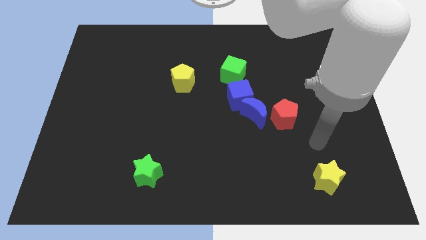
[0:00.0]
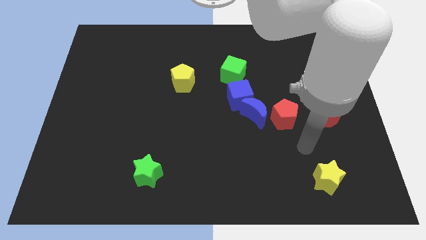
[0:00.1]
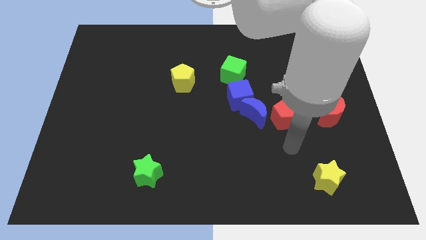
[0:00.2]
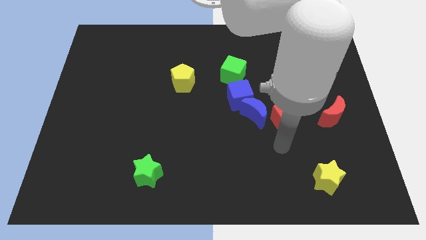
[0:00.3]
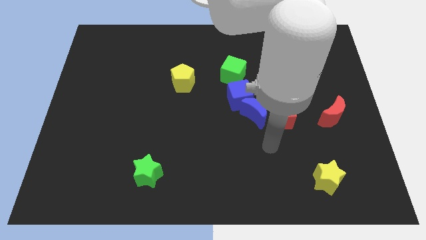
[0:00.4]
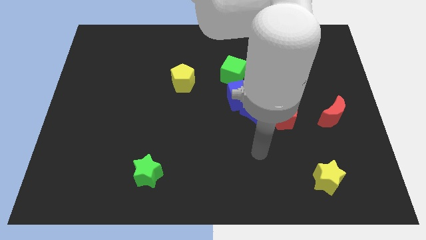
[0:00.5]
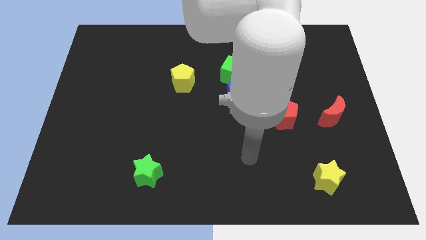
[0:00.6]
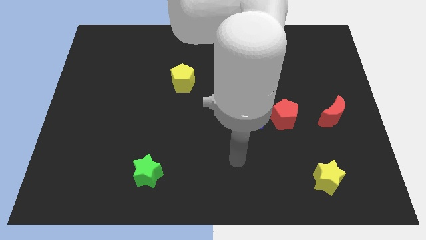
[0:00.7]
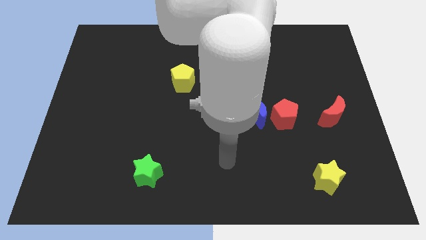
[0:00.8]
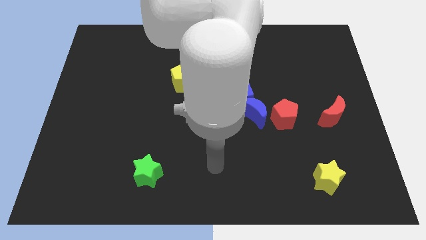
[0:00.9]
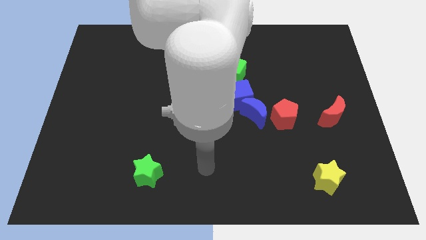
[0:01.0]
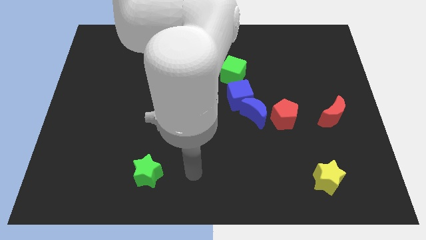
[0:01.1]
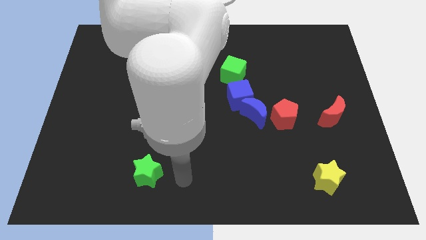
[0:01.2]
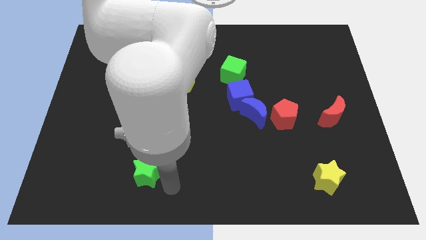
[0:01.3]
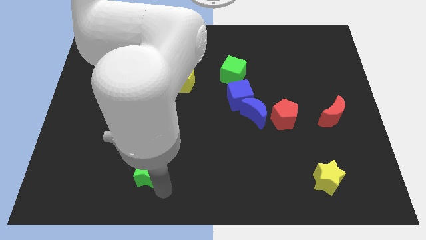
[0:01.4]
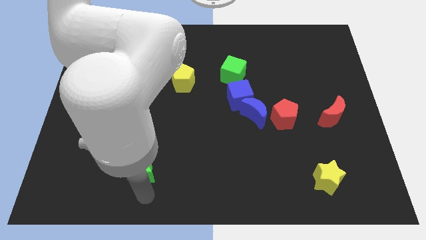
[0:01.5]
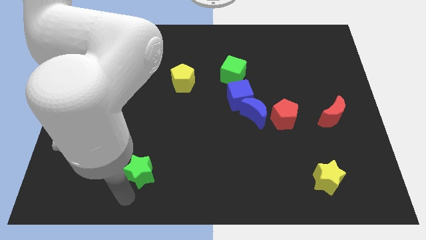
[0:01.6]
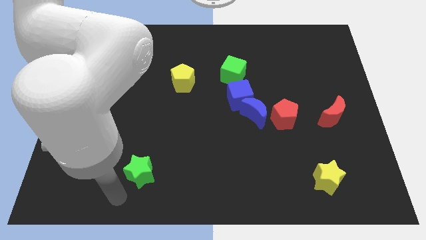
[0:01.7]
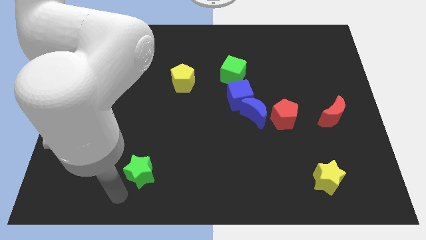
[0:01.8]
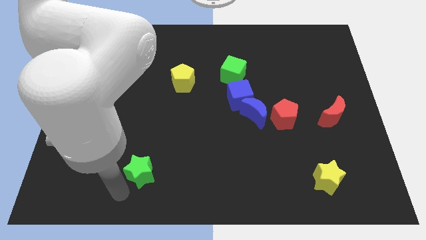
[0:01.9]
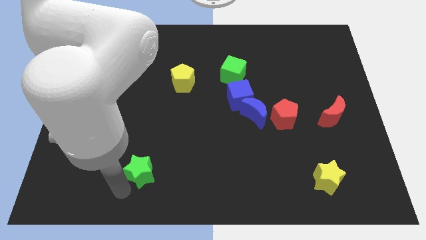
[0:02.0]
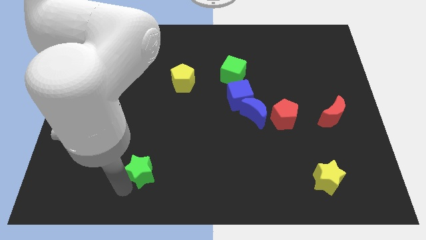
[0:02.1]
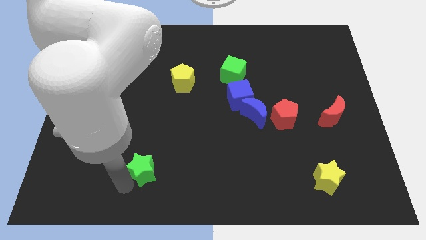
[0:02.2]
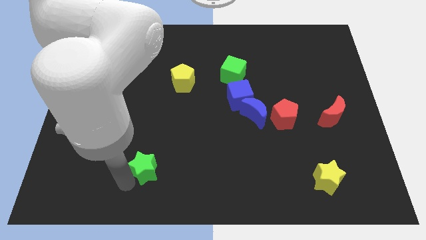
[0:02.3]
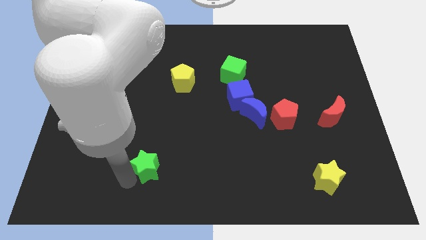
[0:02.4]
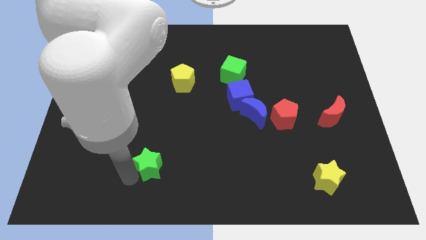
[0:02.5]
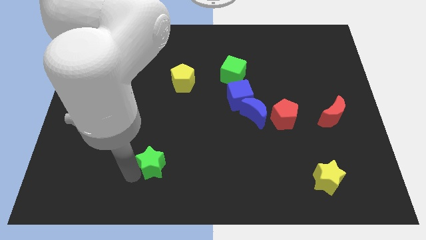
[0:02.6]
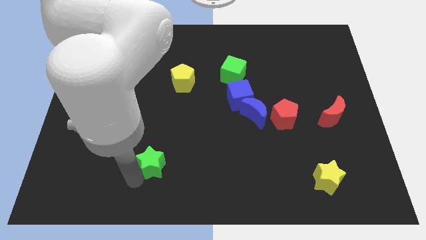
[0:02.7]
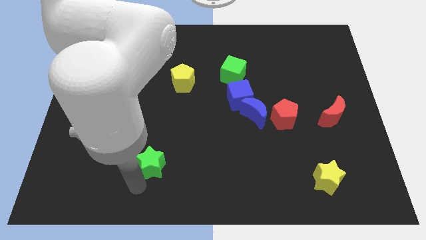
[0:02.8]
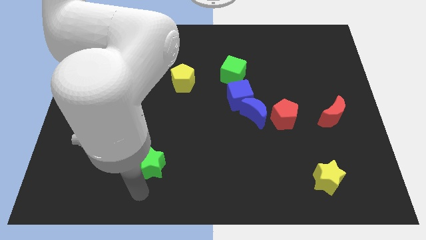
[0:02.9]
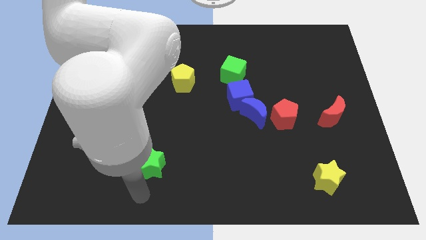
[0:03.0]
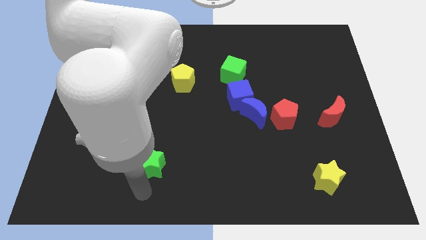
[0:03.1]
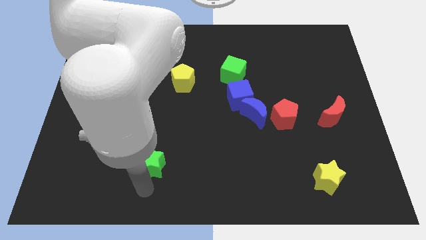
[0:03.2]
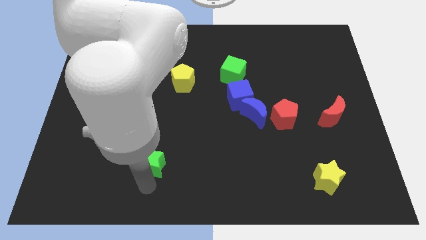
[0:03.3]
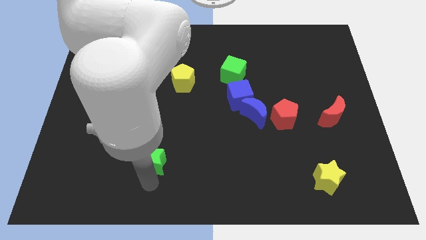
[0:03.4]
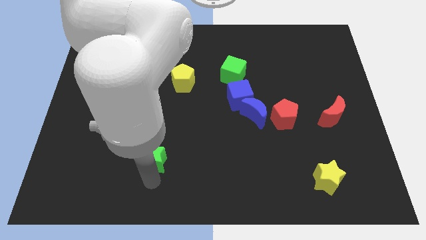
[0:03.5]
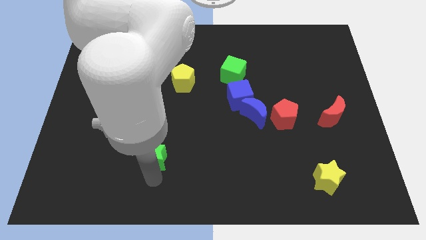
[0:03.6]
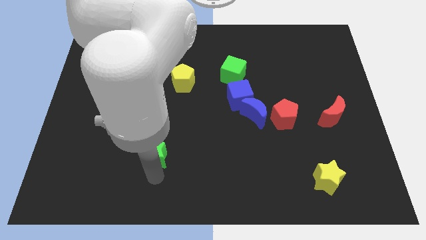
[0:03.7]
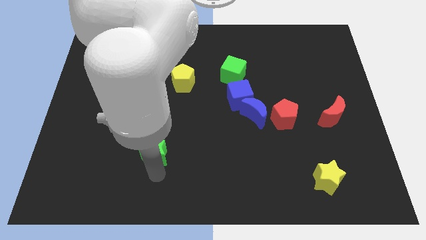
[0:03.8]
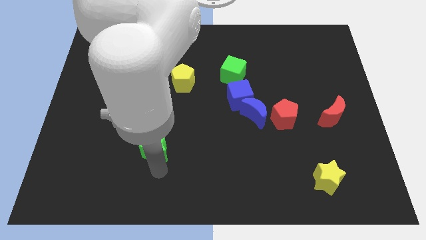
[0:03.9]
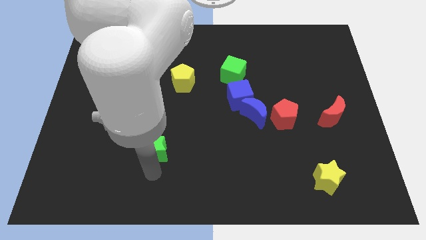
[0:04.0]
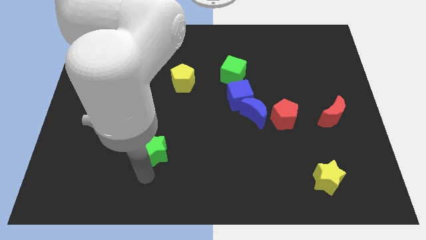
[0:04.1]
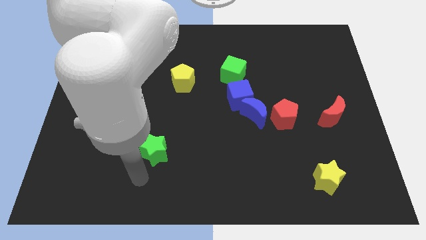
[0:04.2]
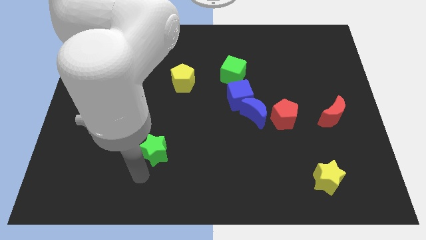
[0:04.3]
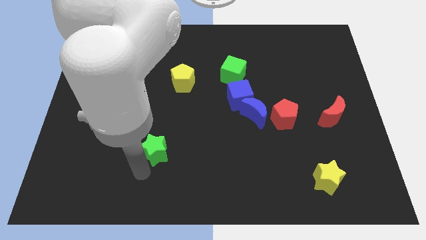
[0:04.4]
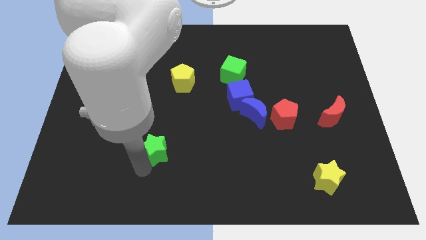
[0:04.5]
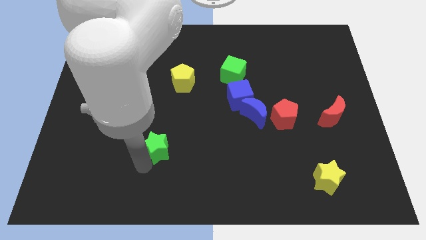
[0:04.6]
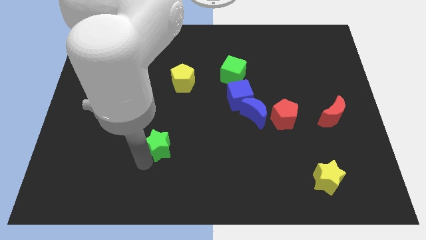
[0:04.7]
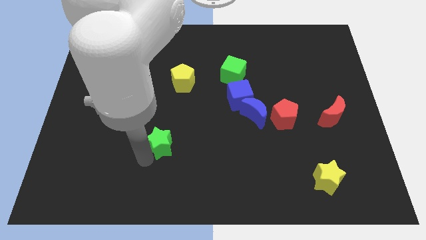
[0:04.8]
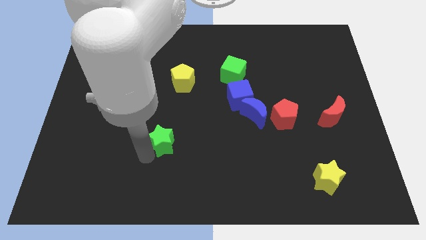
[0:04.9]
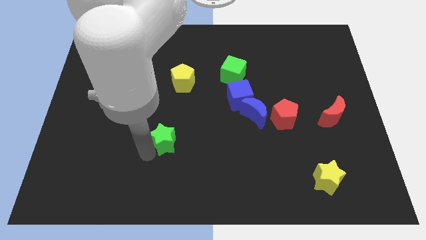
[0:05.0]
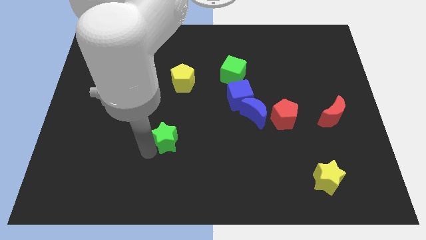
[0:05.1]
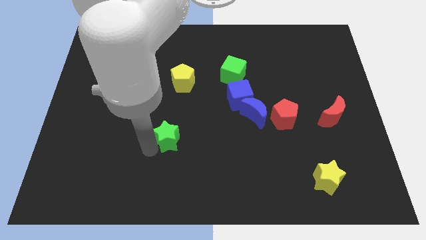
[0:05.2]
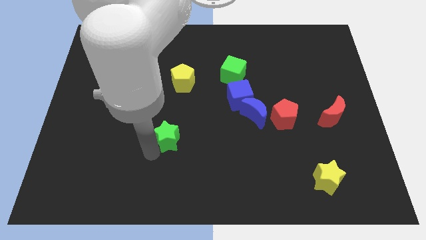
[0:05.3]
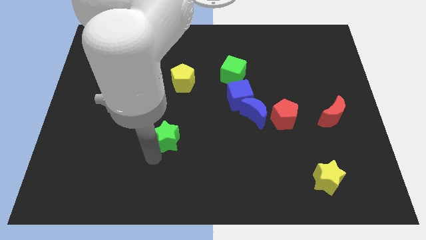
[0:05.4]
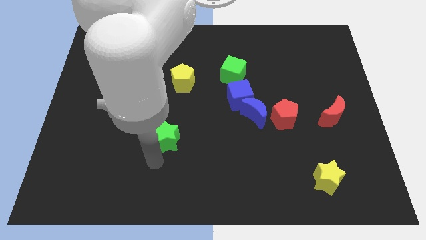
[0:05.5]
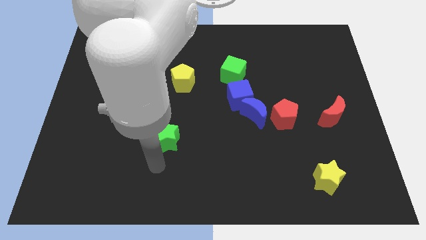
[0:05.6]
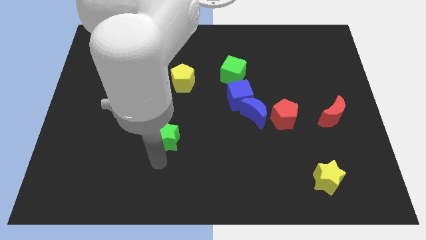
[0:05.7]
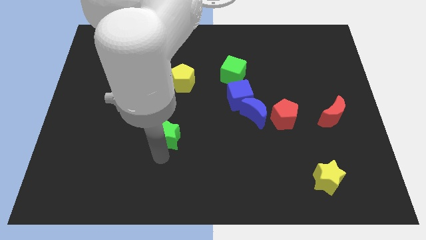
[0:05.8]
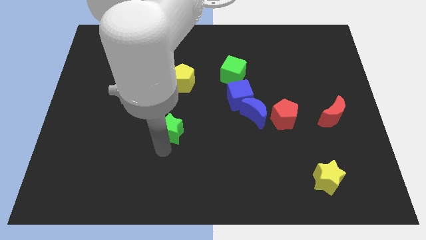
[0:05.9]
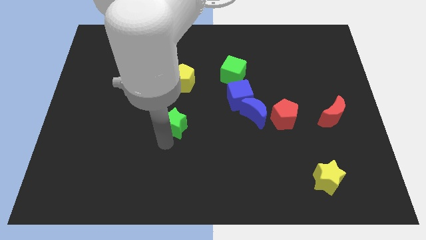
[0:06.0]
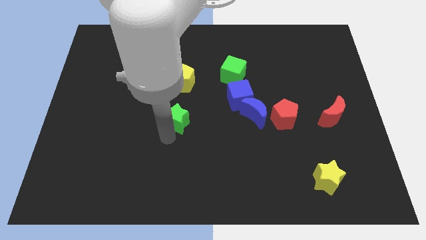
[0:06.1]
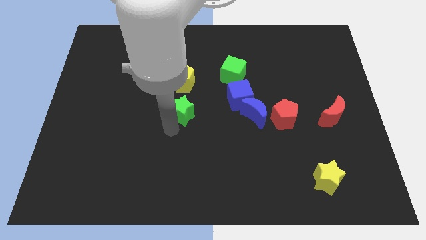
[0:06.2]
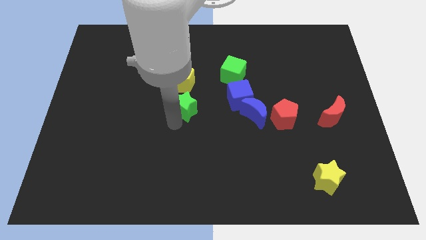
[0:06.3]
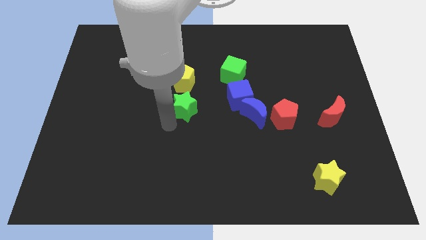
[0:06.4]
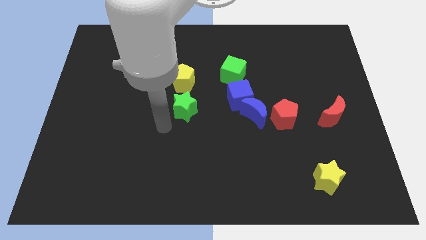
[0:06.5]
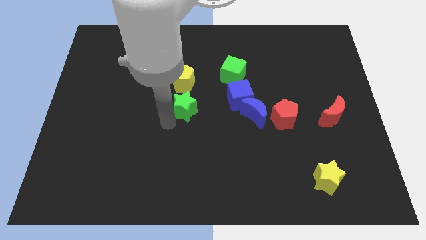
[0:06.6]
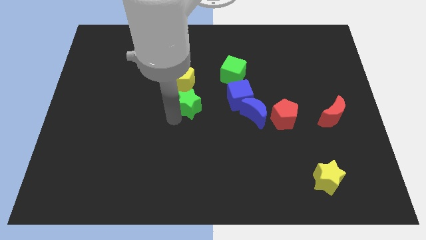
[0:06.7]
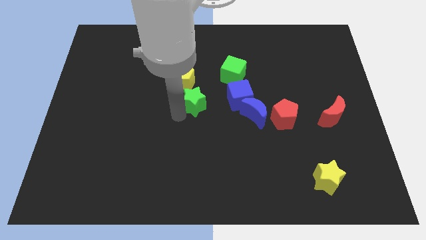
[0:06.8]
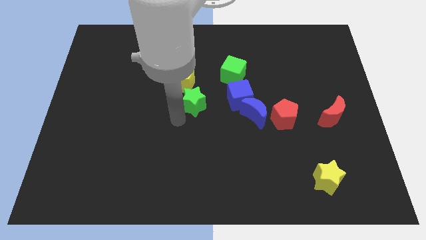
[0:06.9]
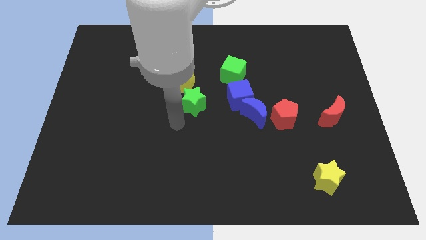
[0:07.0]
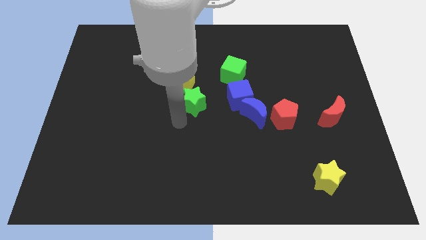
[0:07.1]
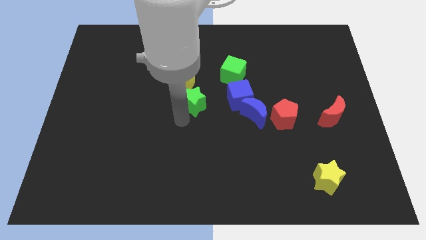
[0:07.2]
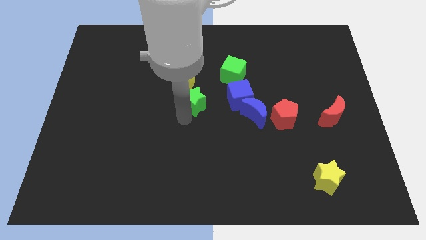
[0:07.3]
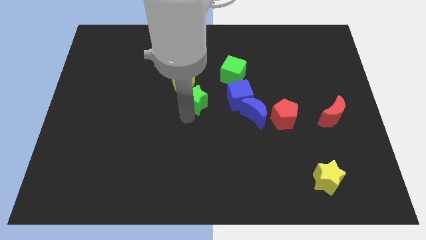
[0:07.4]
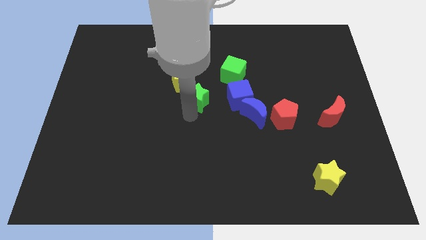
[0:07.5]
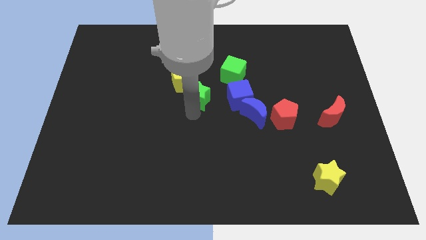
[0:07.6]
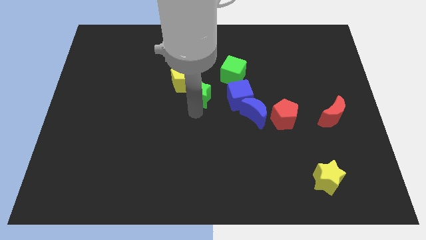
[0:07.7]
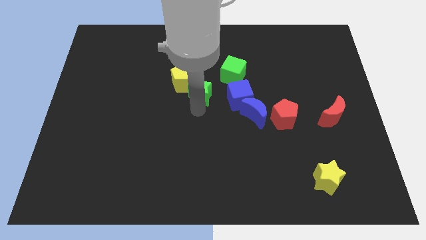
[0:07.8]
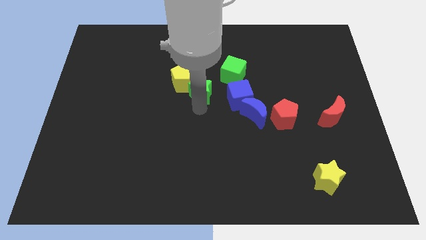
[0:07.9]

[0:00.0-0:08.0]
move the green star upwards and then to the right

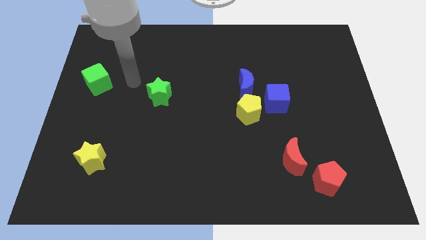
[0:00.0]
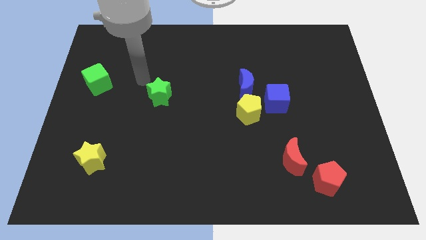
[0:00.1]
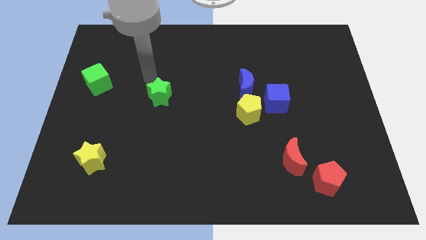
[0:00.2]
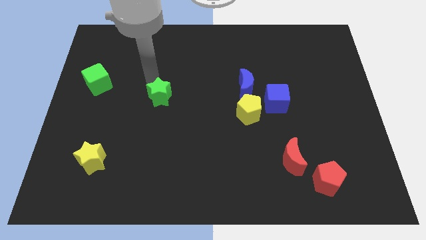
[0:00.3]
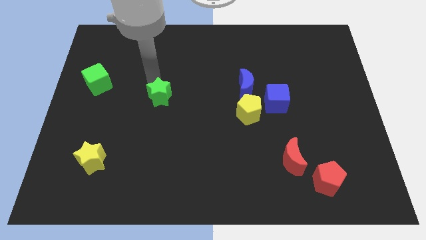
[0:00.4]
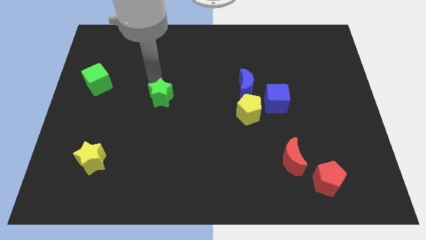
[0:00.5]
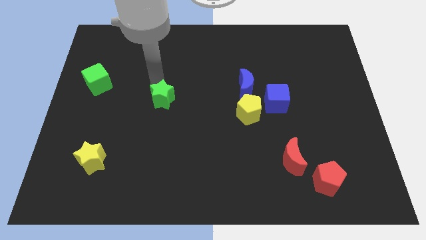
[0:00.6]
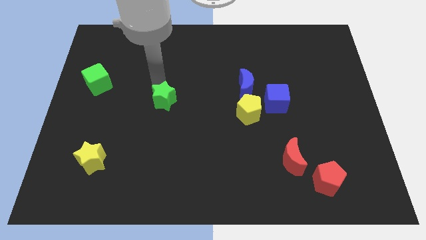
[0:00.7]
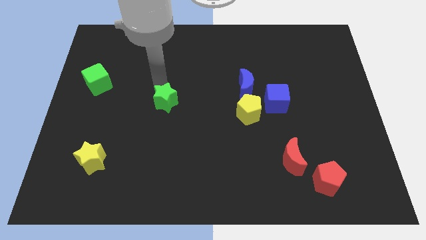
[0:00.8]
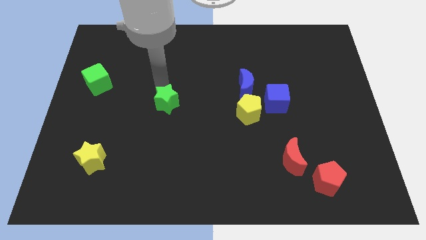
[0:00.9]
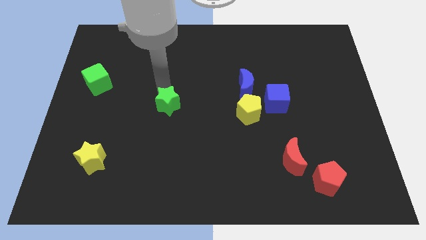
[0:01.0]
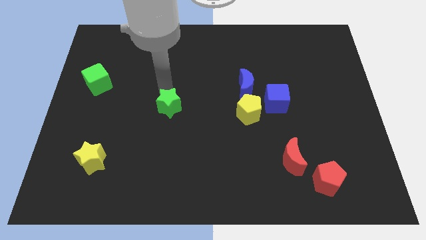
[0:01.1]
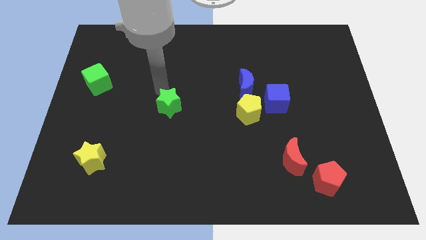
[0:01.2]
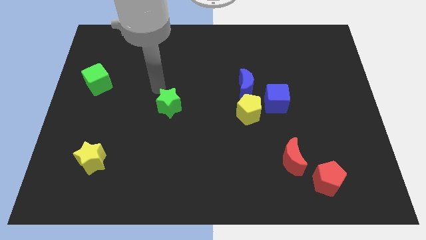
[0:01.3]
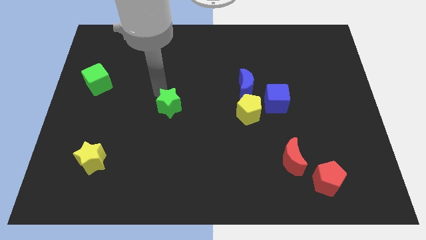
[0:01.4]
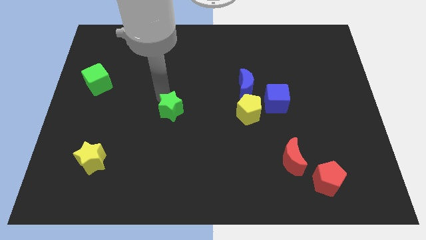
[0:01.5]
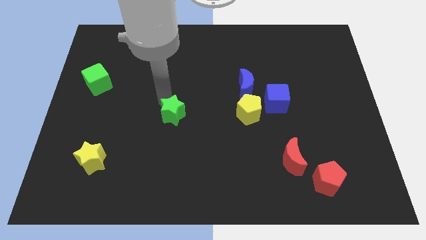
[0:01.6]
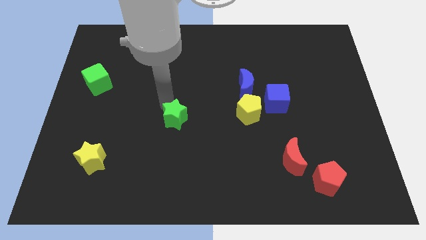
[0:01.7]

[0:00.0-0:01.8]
slide the green star down and to the right diagonally slightly
